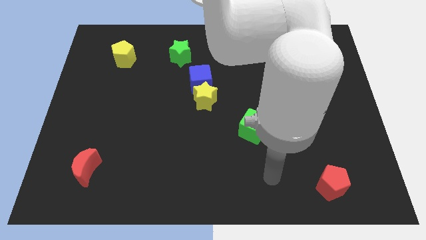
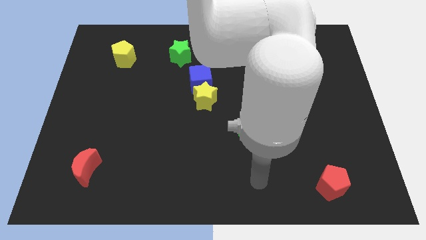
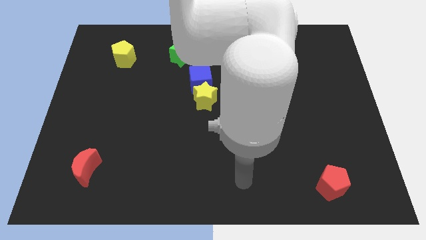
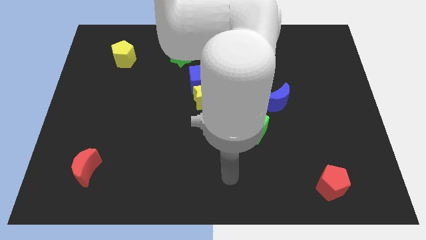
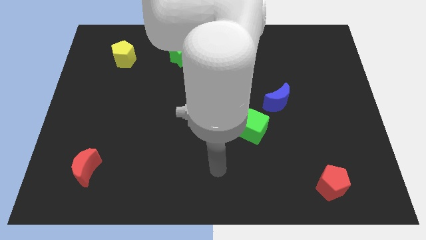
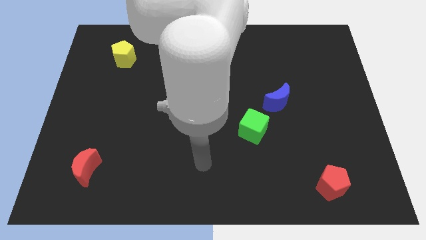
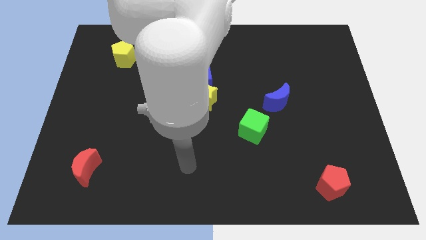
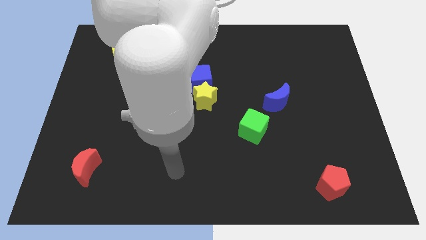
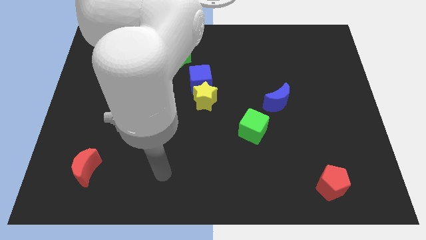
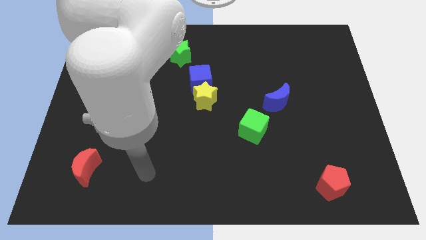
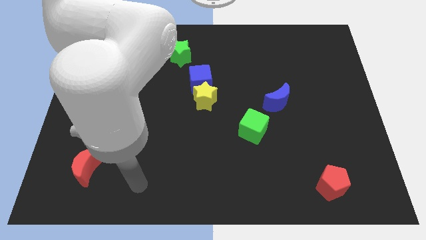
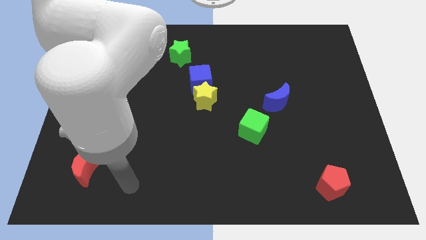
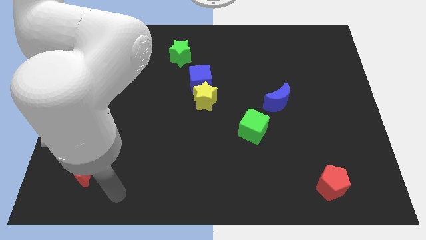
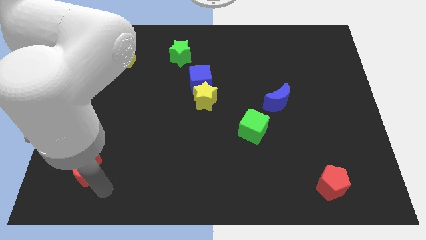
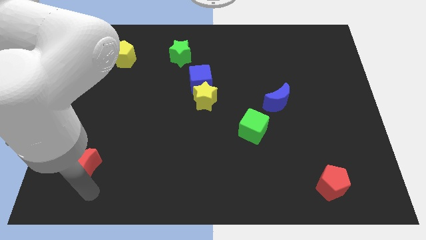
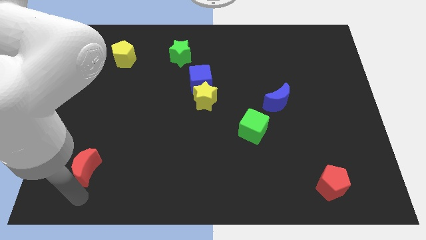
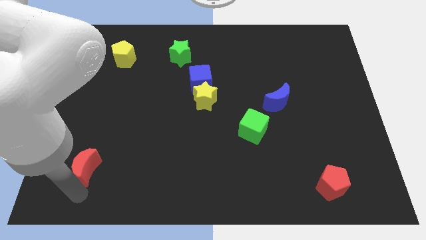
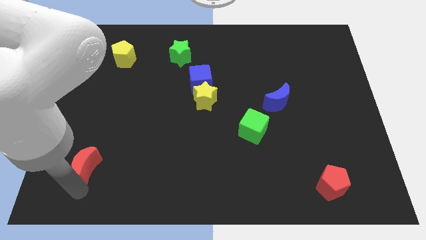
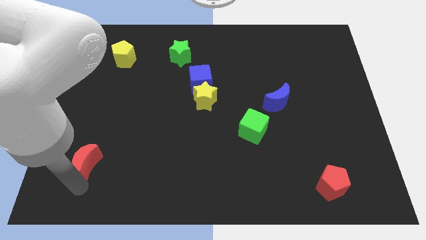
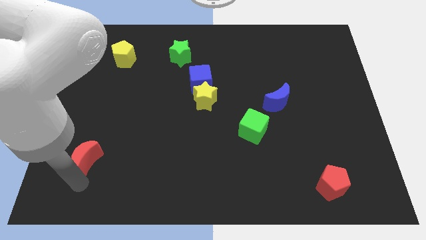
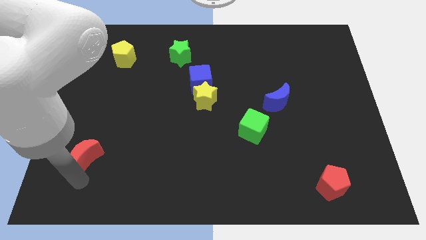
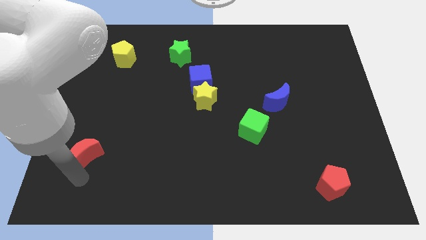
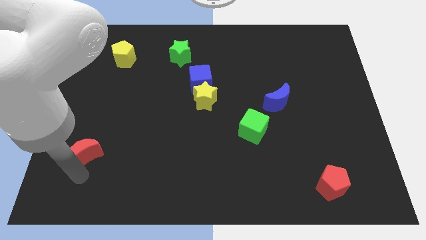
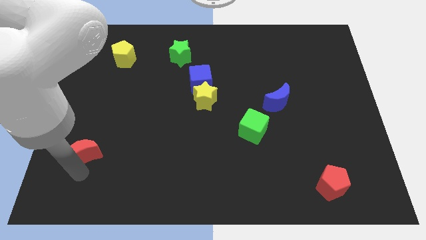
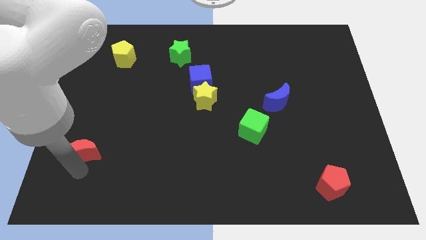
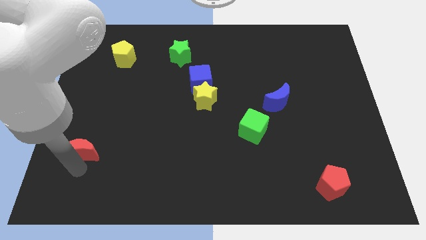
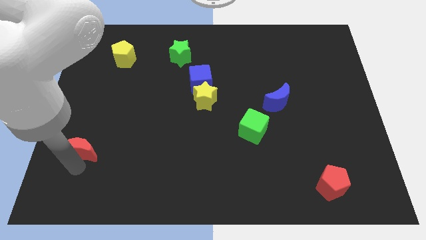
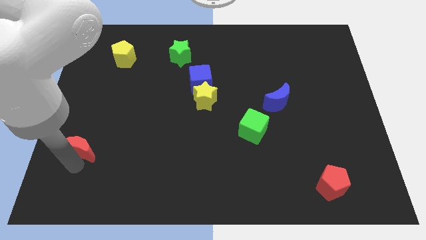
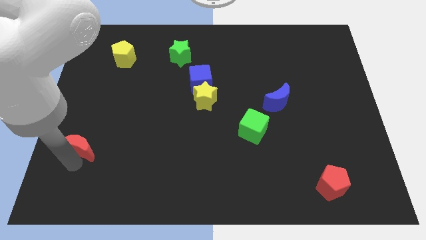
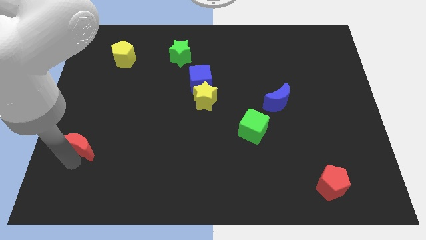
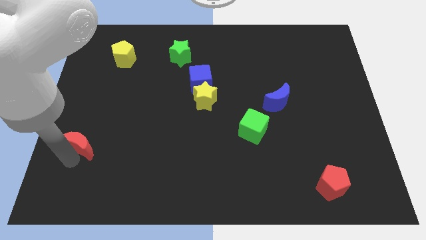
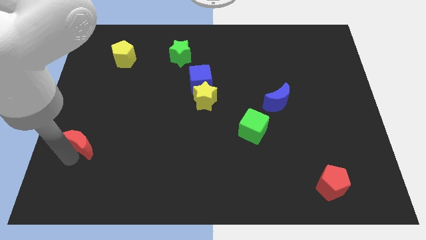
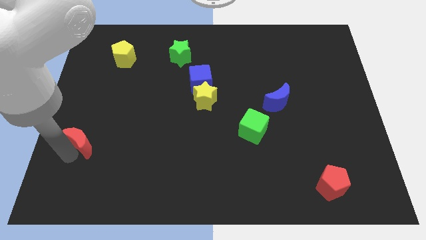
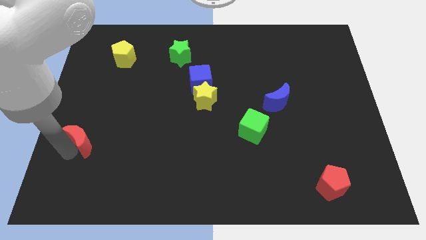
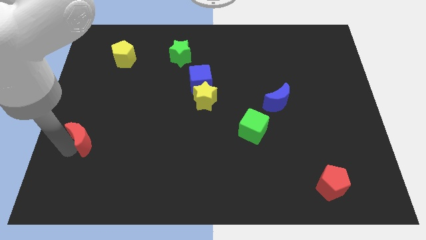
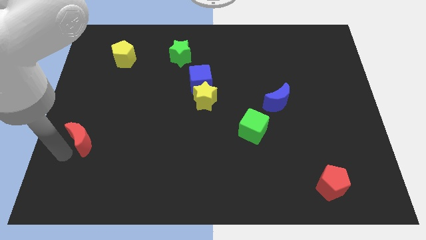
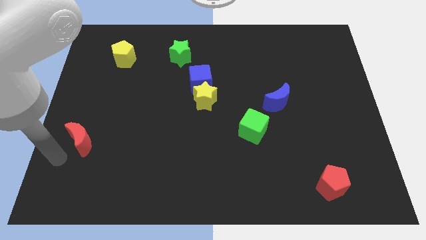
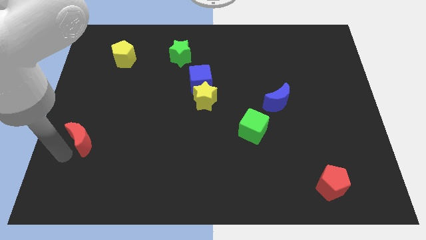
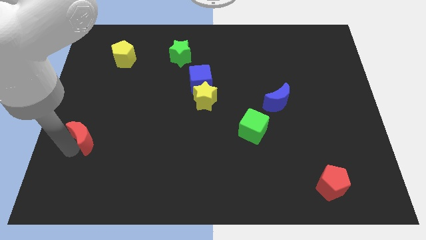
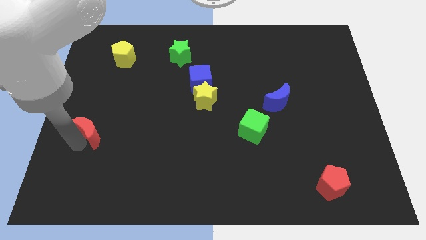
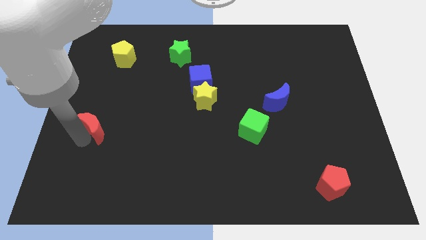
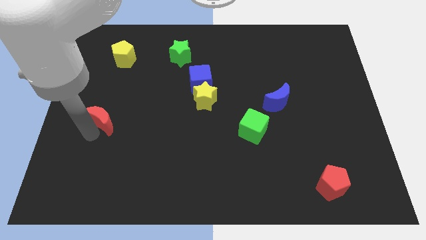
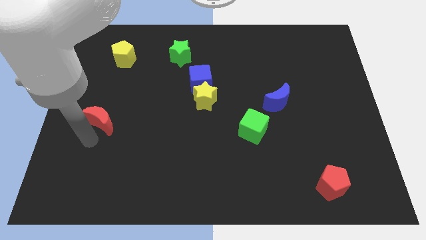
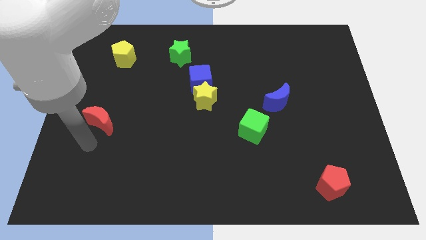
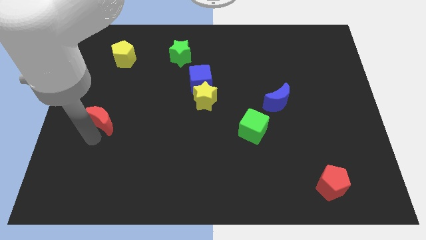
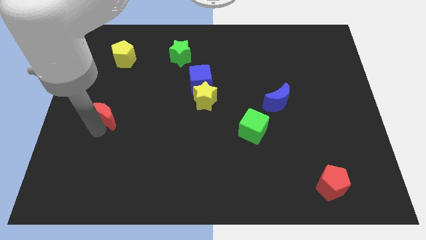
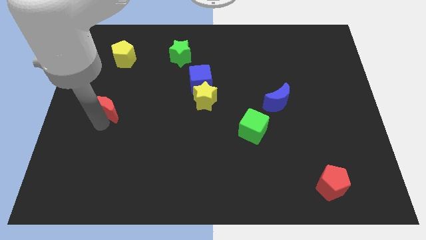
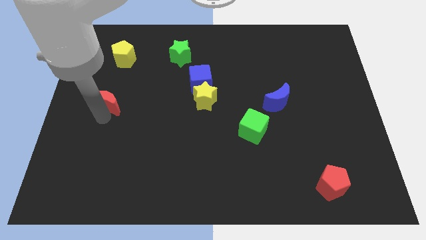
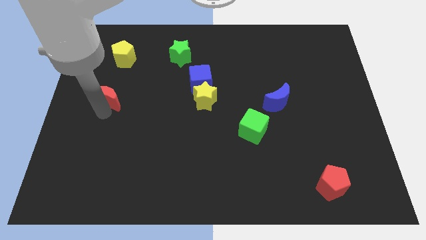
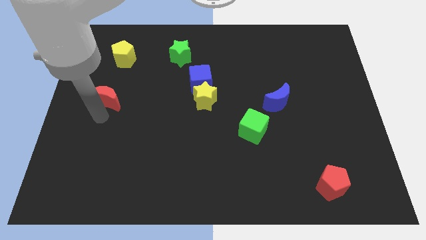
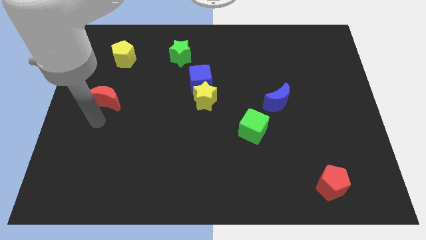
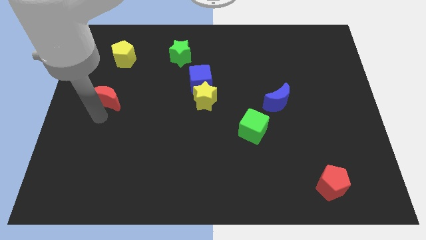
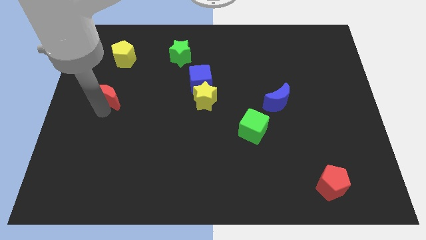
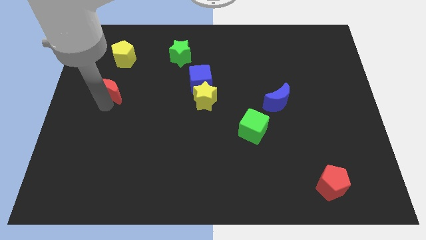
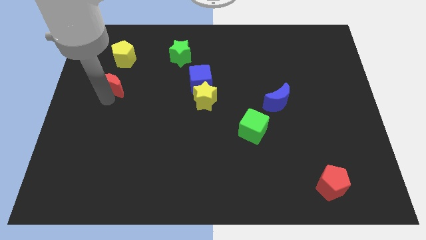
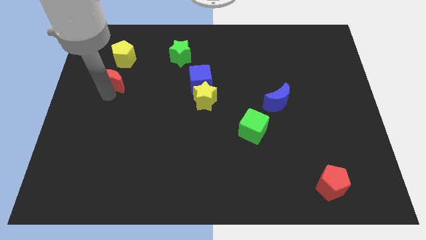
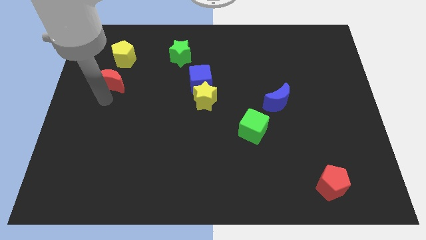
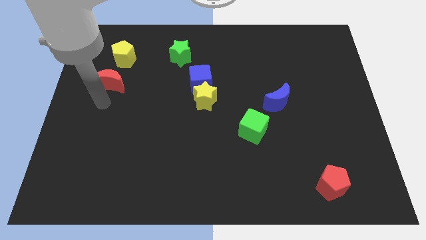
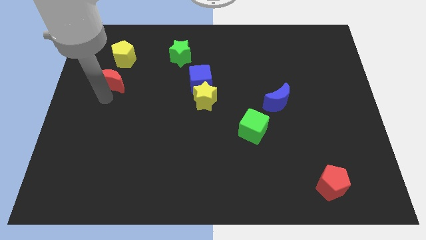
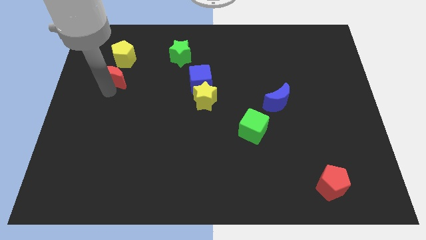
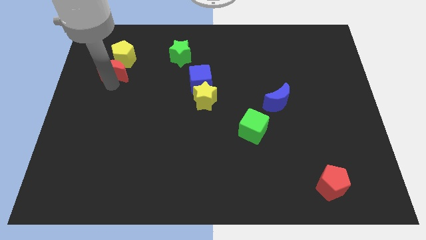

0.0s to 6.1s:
put the red moon next to the yellow pentagon
